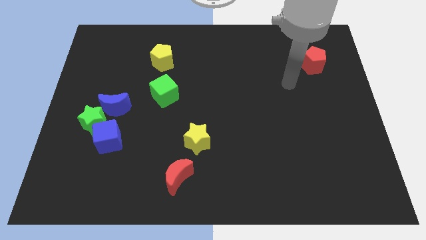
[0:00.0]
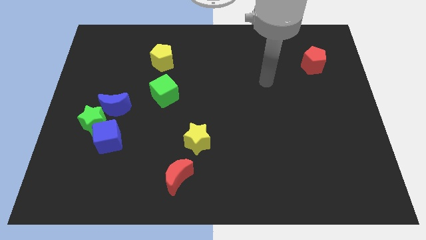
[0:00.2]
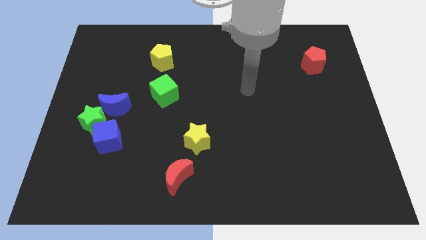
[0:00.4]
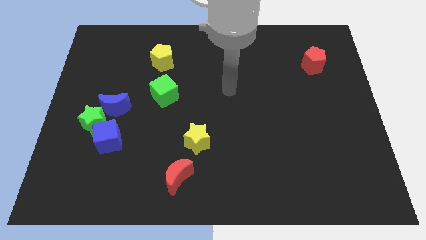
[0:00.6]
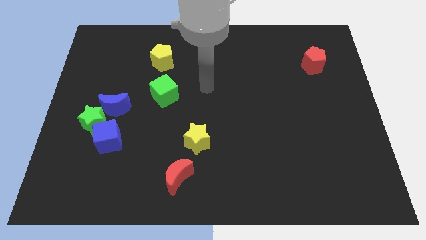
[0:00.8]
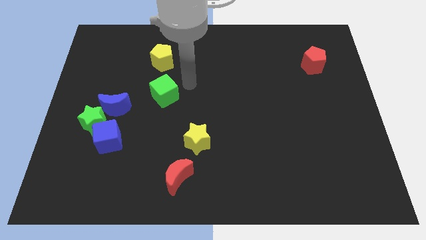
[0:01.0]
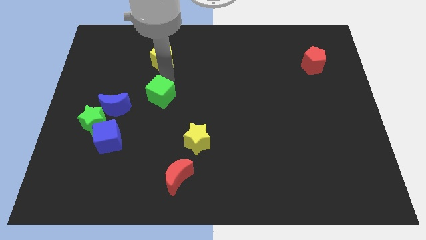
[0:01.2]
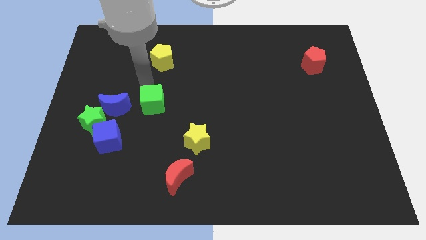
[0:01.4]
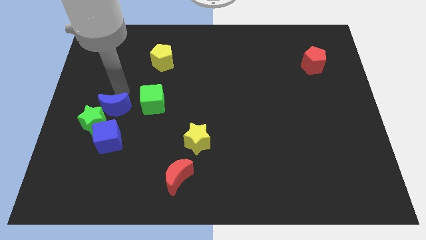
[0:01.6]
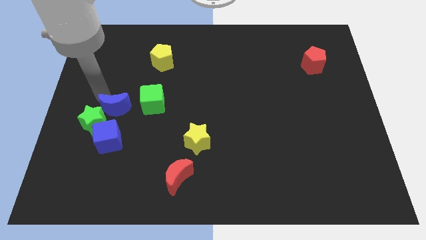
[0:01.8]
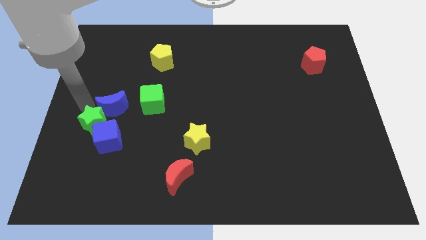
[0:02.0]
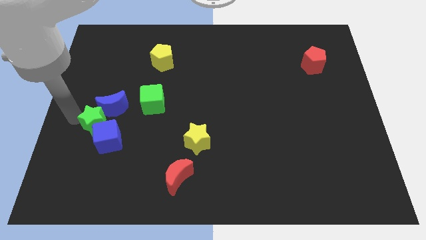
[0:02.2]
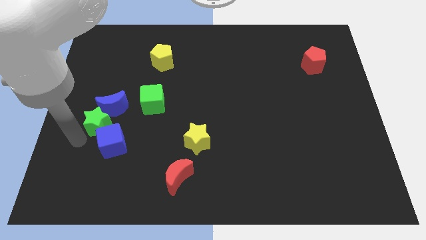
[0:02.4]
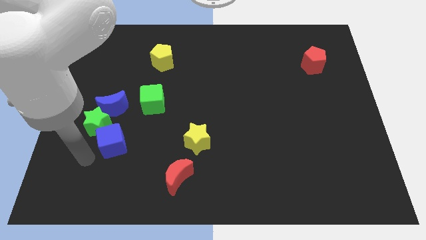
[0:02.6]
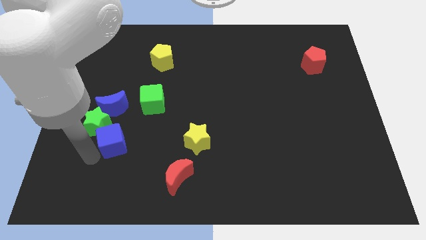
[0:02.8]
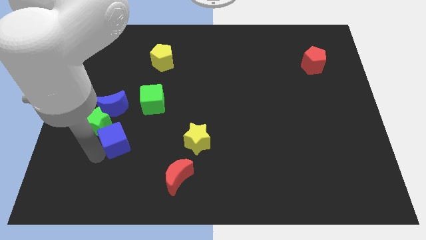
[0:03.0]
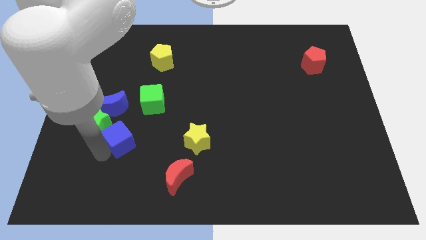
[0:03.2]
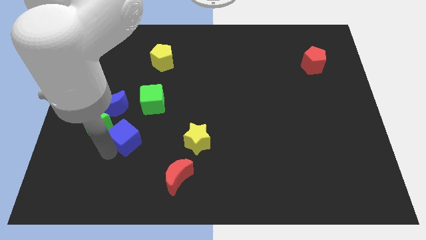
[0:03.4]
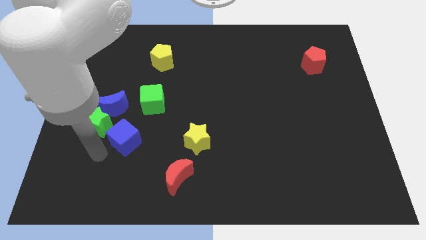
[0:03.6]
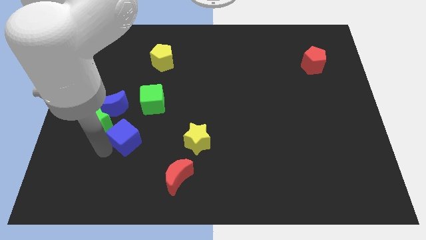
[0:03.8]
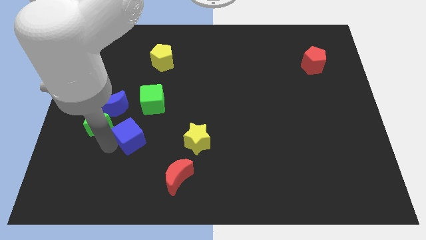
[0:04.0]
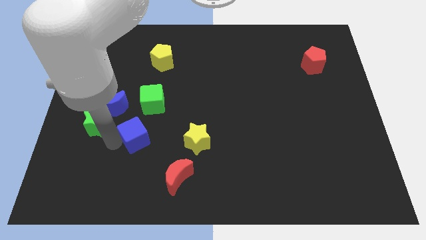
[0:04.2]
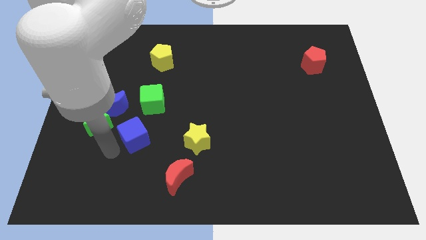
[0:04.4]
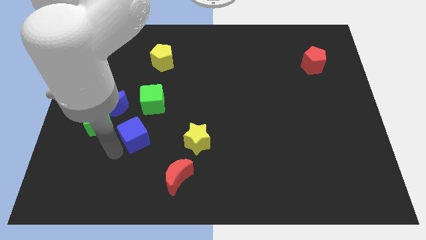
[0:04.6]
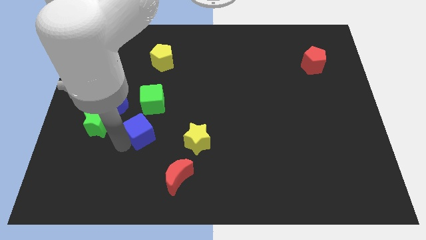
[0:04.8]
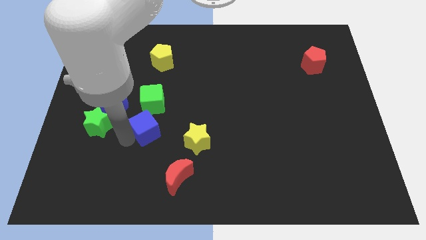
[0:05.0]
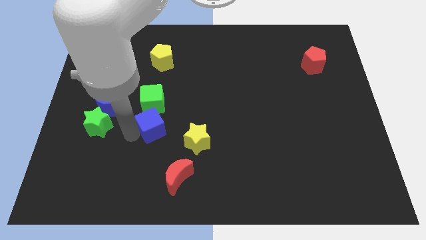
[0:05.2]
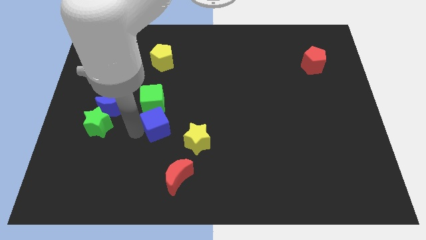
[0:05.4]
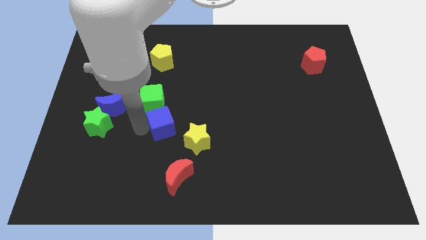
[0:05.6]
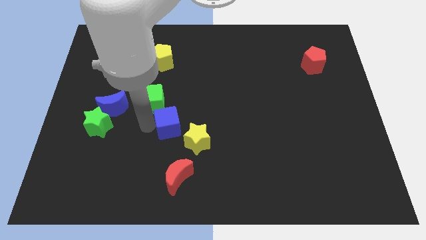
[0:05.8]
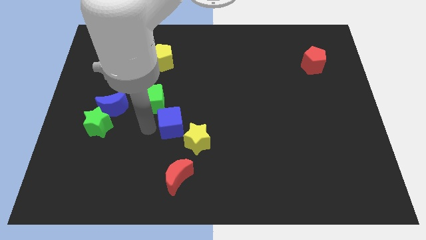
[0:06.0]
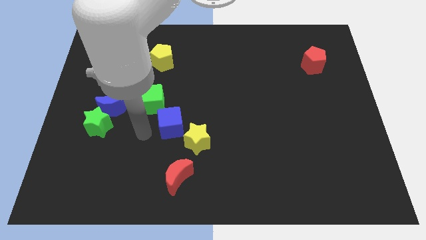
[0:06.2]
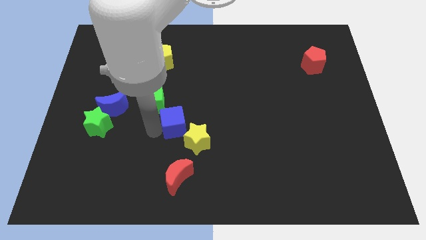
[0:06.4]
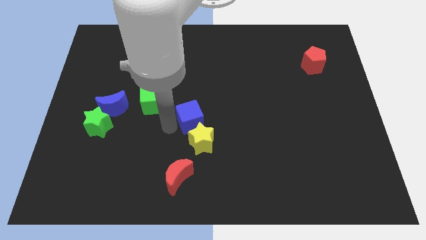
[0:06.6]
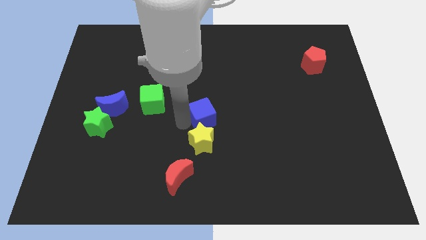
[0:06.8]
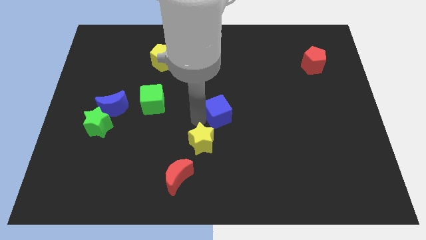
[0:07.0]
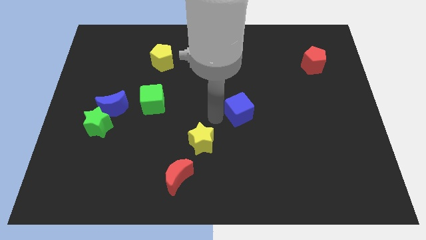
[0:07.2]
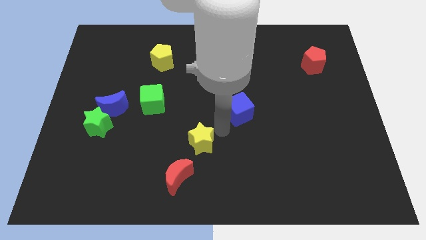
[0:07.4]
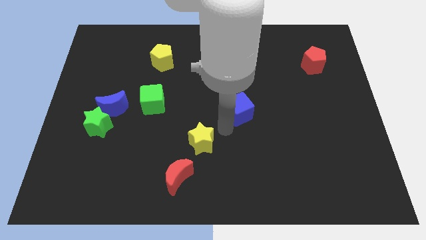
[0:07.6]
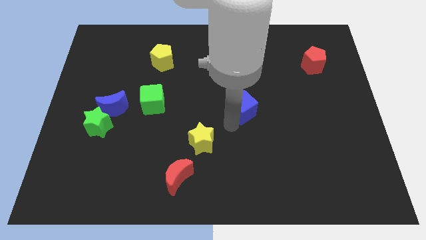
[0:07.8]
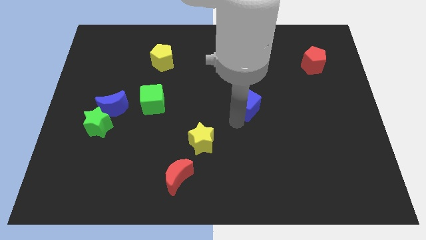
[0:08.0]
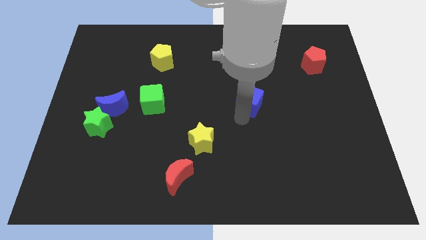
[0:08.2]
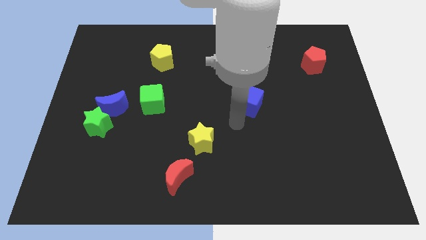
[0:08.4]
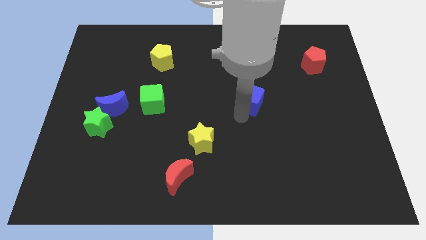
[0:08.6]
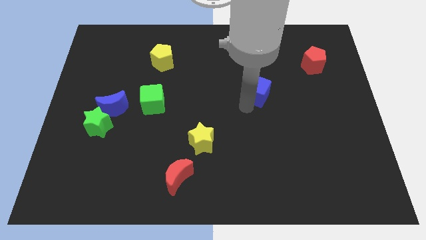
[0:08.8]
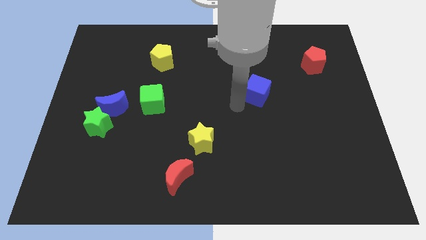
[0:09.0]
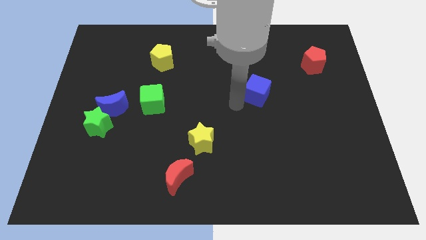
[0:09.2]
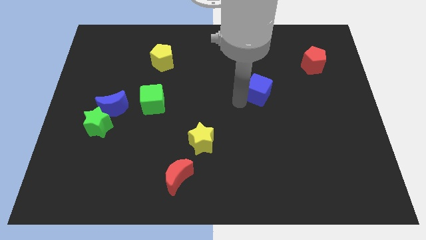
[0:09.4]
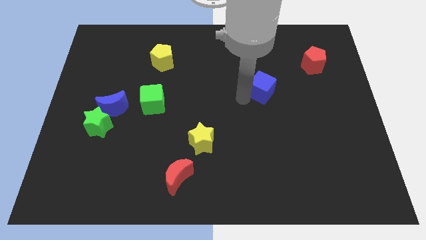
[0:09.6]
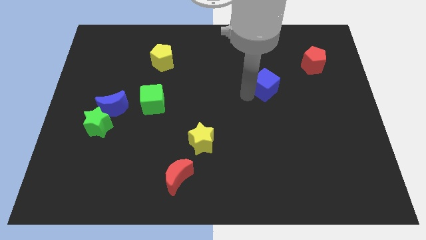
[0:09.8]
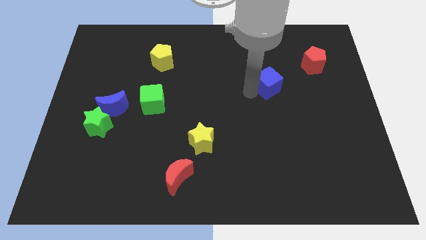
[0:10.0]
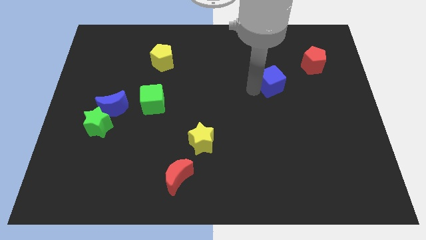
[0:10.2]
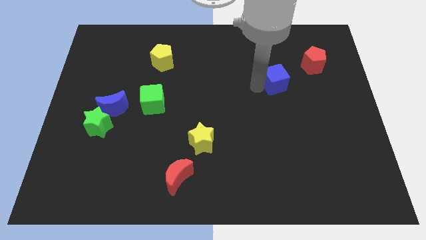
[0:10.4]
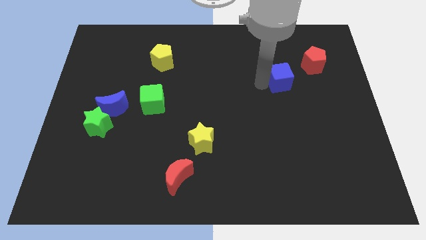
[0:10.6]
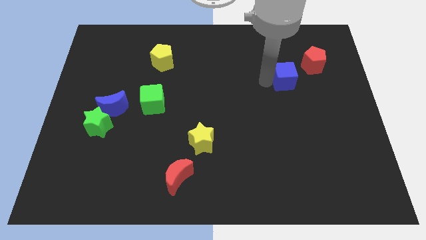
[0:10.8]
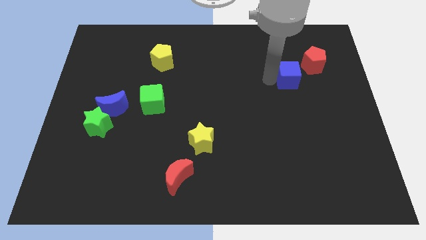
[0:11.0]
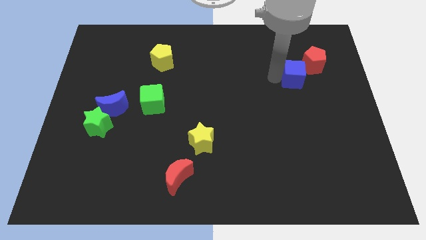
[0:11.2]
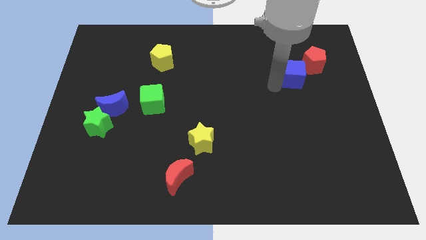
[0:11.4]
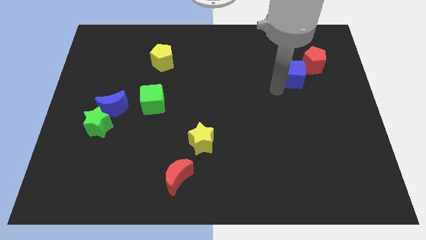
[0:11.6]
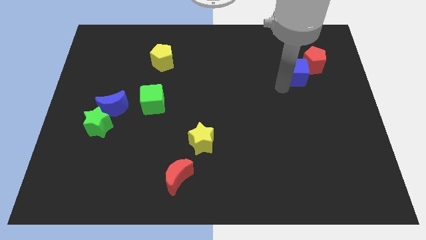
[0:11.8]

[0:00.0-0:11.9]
put the blue cube next to the red pentagon

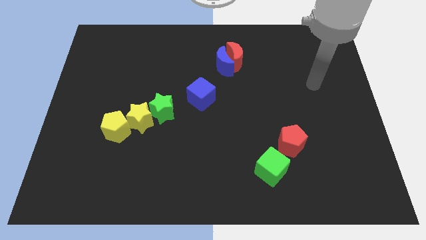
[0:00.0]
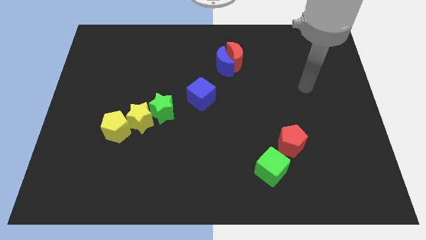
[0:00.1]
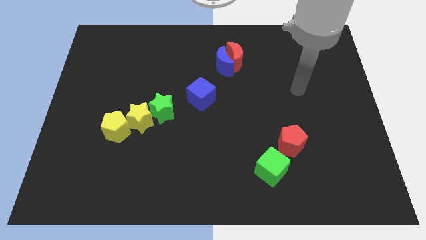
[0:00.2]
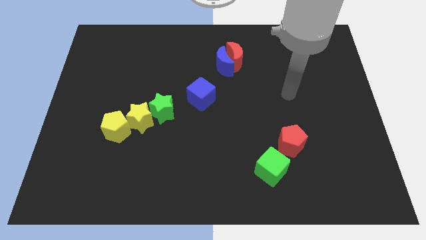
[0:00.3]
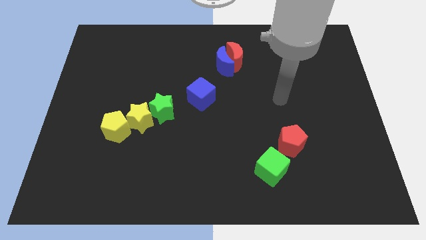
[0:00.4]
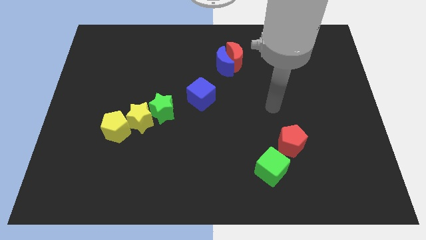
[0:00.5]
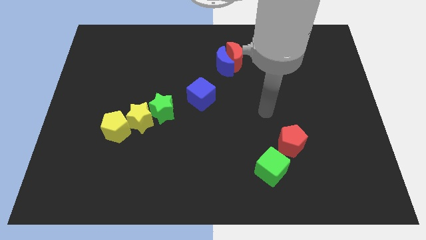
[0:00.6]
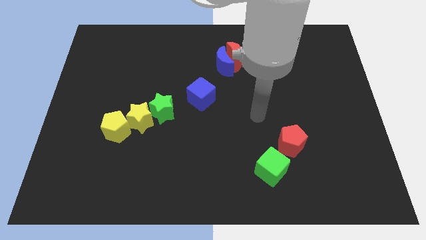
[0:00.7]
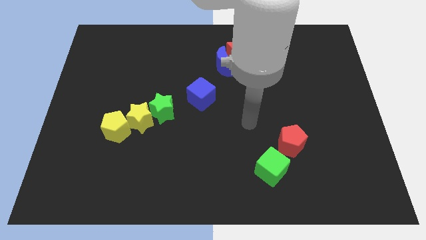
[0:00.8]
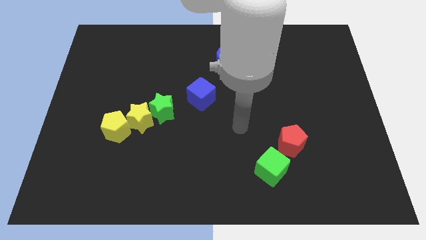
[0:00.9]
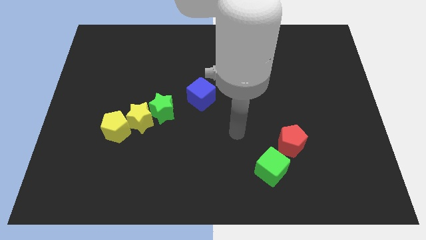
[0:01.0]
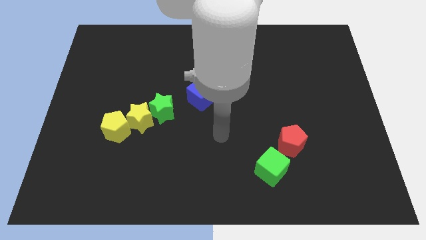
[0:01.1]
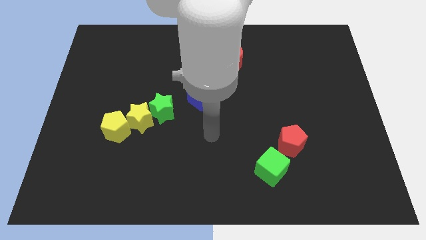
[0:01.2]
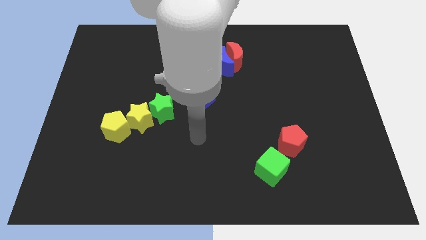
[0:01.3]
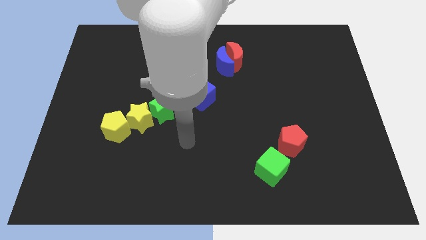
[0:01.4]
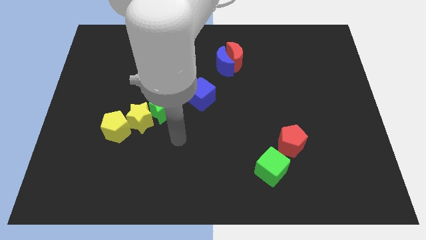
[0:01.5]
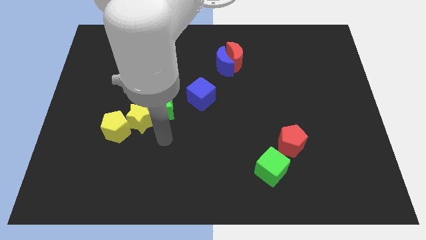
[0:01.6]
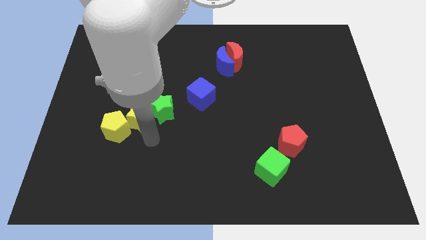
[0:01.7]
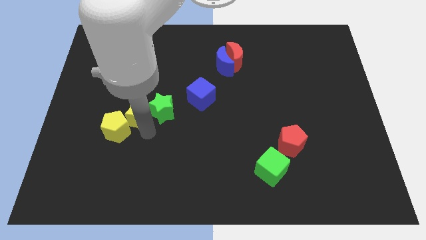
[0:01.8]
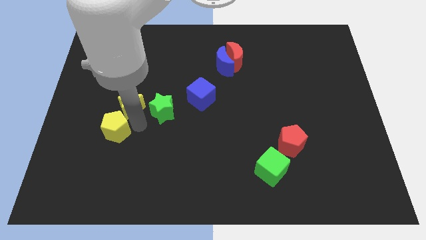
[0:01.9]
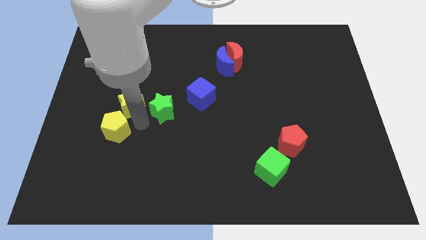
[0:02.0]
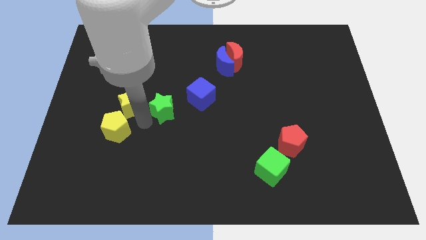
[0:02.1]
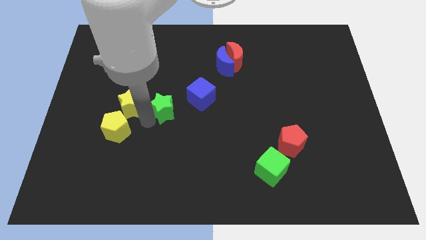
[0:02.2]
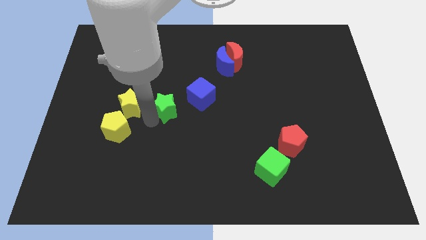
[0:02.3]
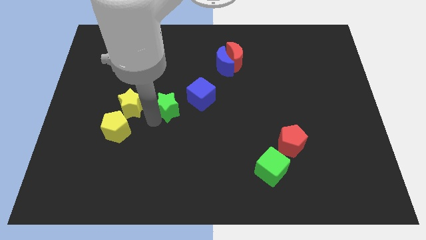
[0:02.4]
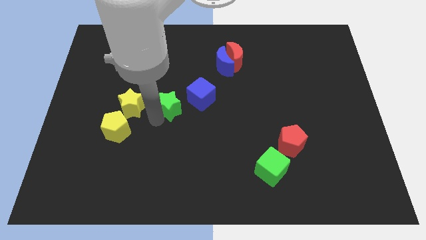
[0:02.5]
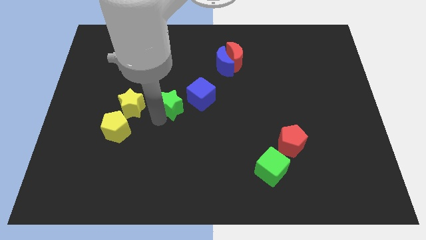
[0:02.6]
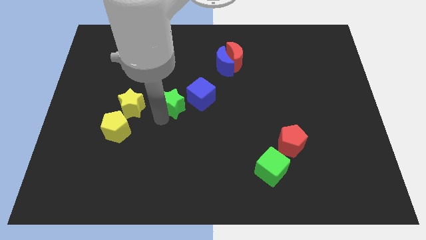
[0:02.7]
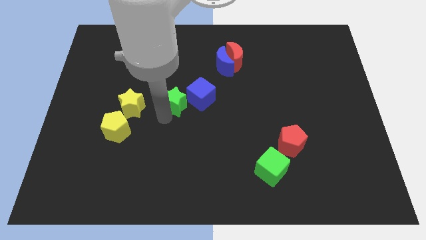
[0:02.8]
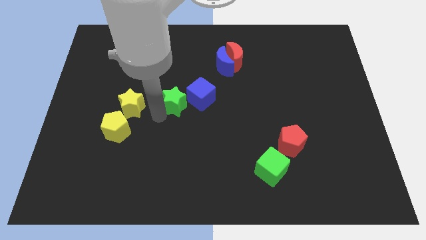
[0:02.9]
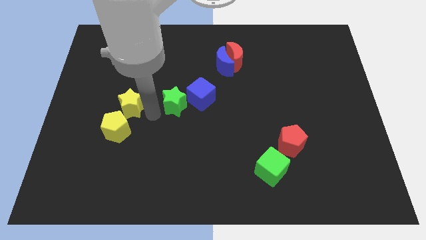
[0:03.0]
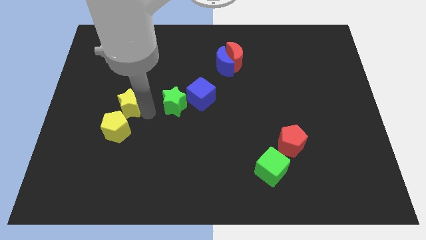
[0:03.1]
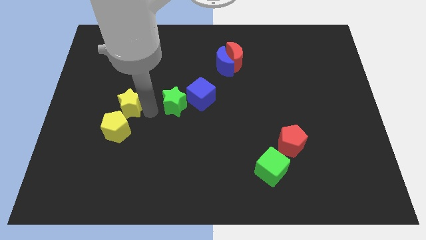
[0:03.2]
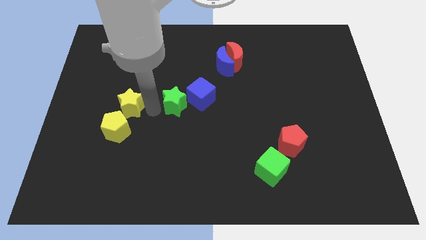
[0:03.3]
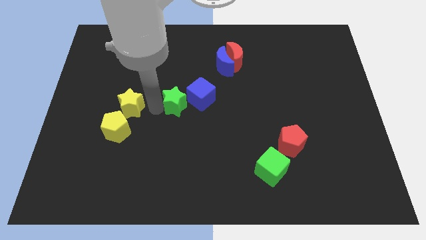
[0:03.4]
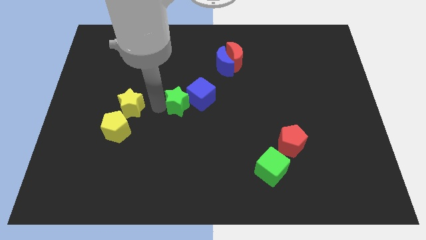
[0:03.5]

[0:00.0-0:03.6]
push the green star close to the blue cube
